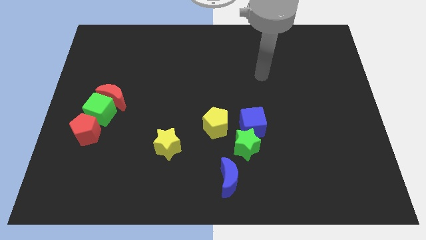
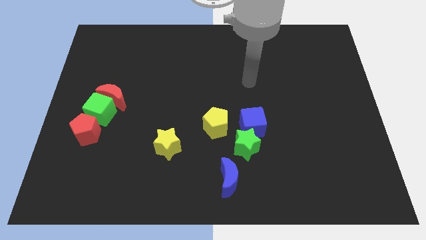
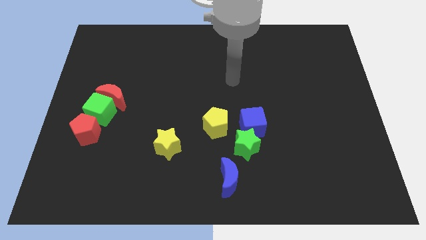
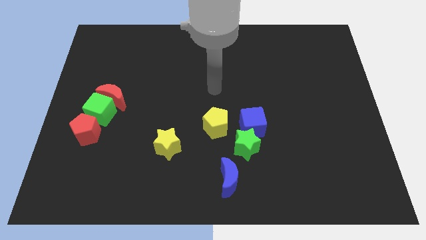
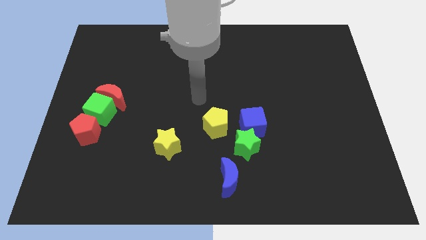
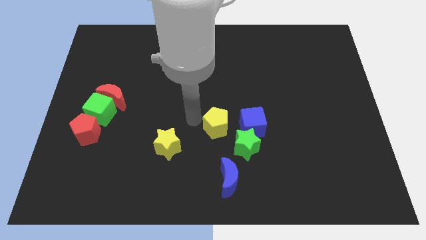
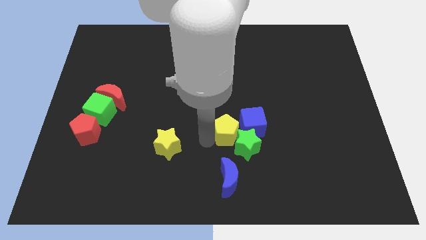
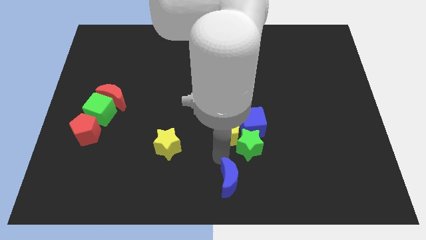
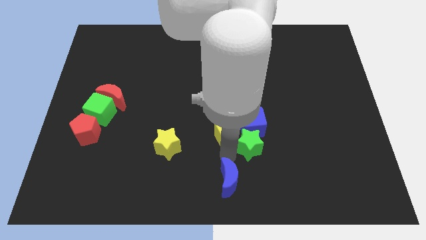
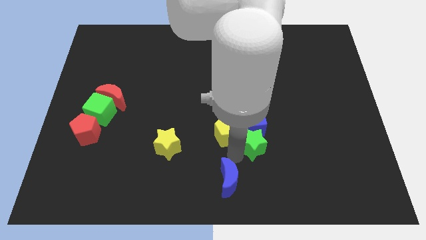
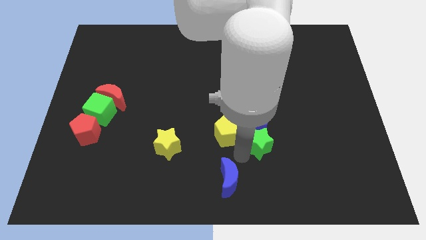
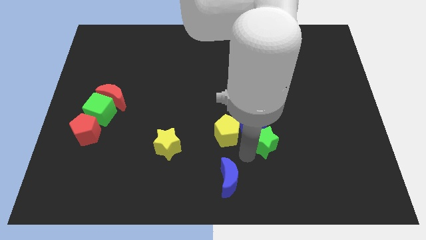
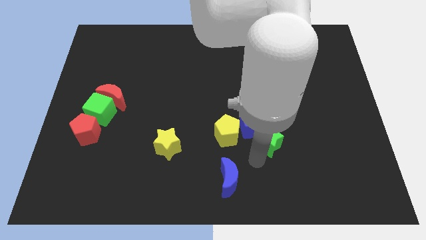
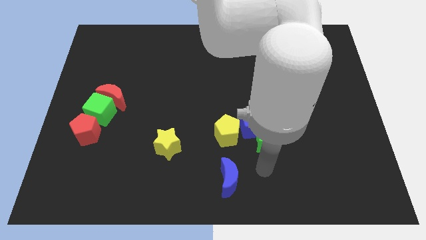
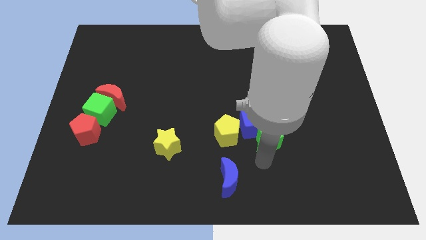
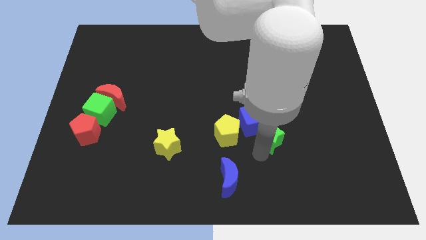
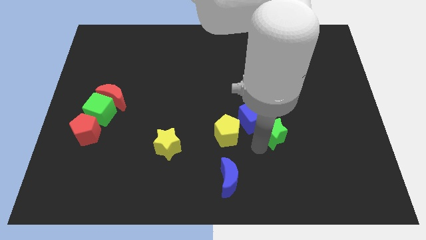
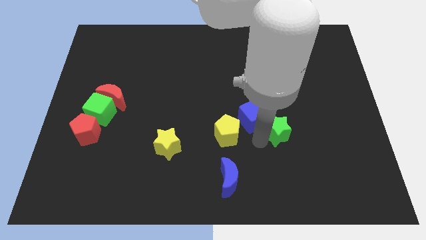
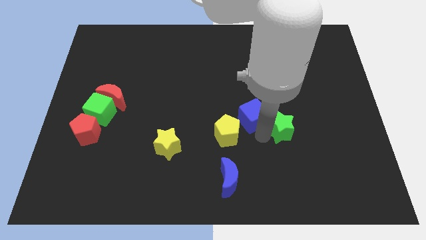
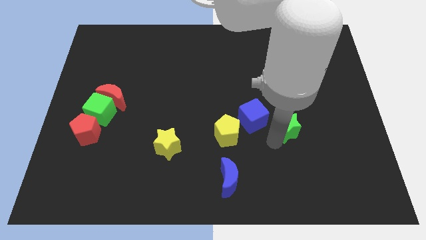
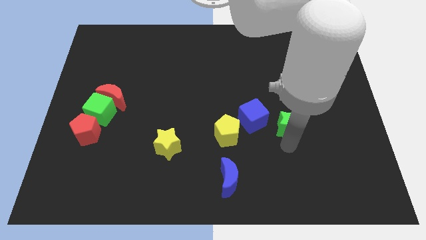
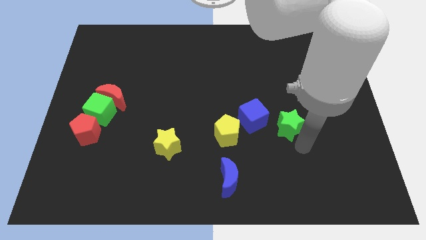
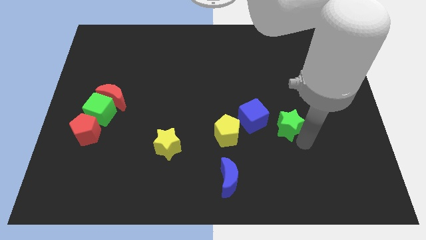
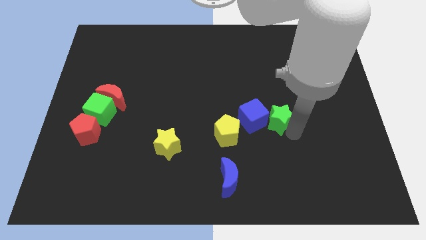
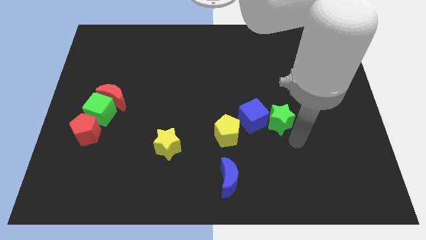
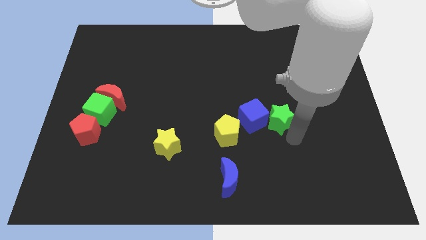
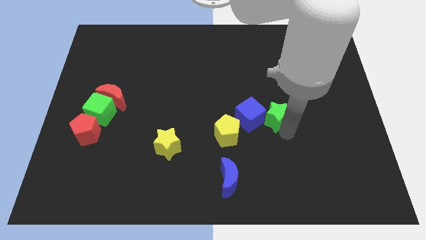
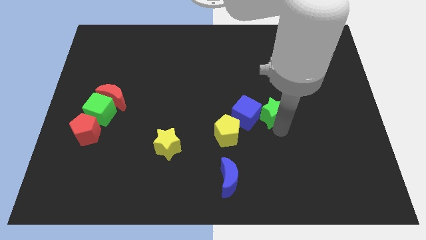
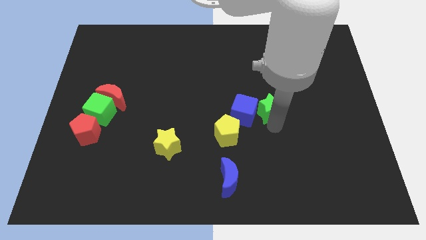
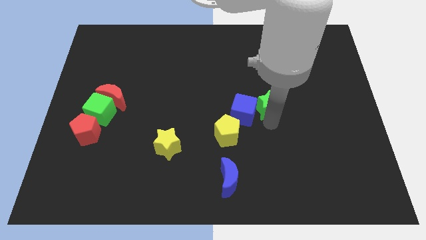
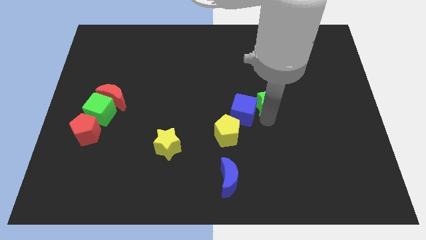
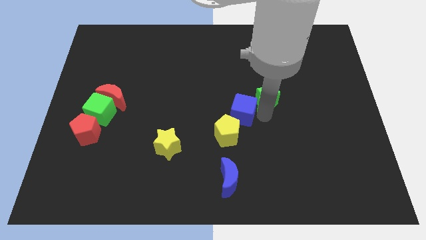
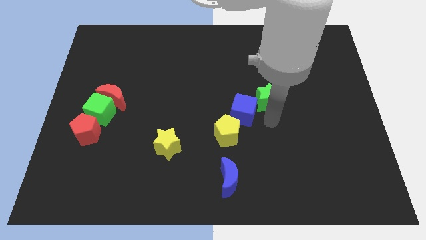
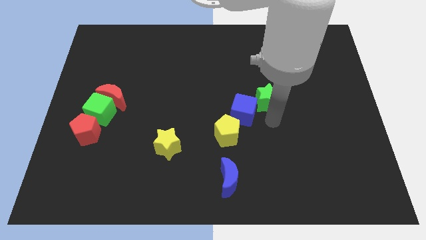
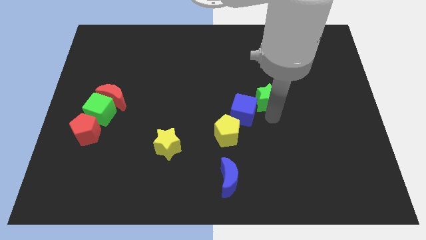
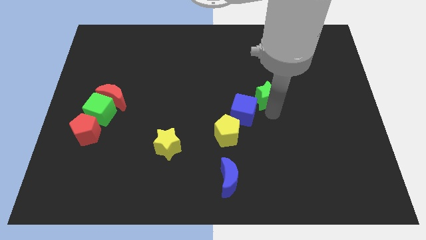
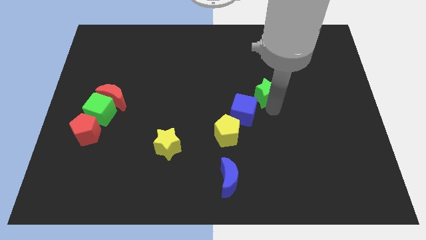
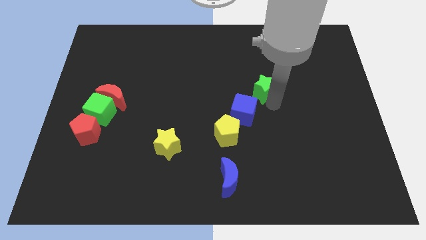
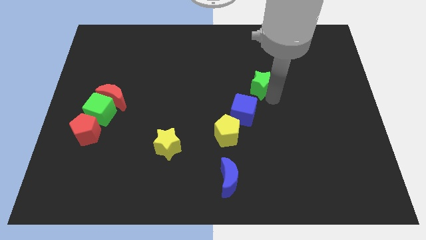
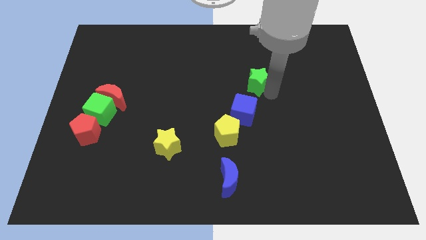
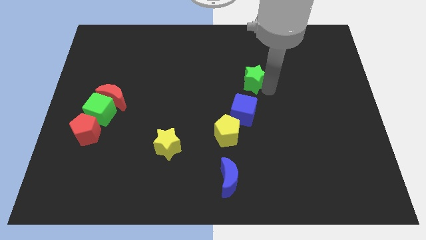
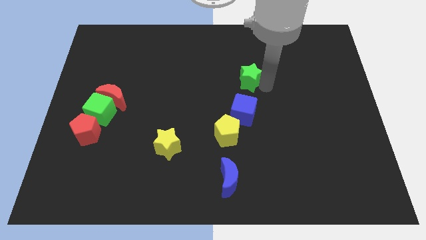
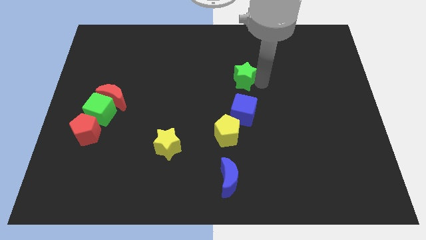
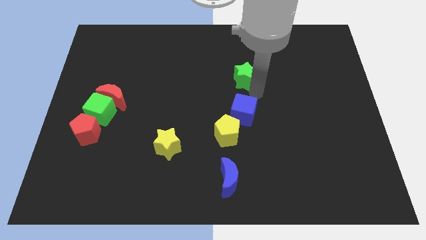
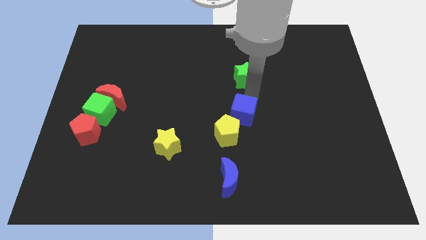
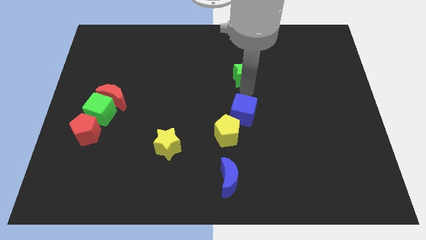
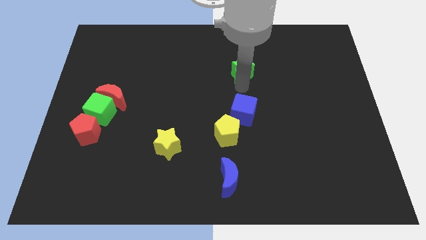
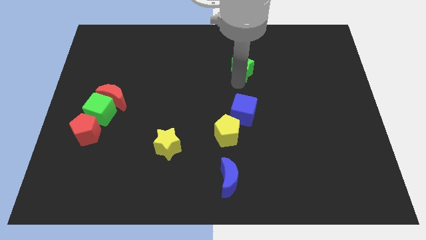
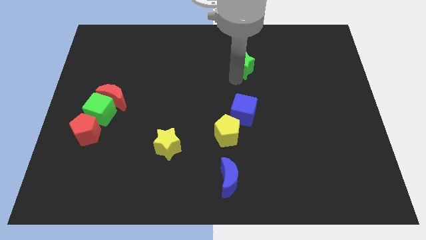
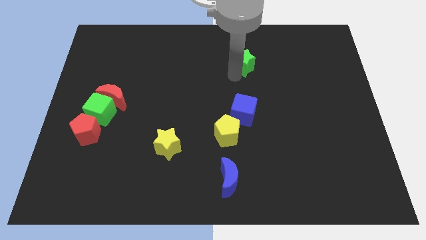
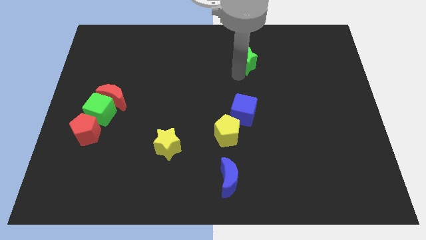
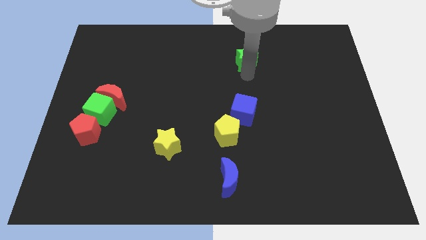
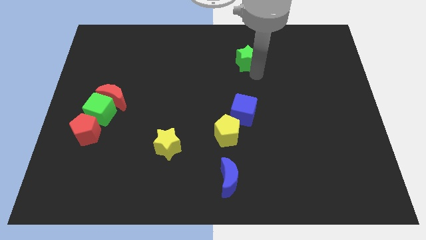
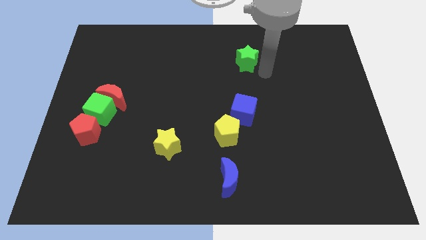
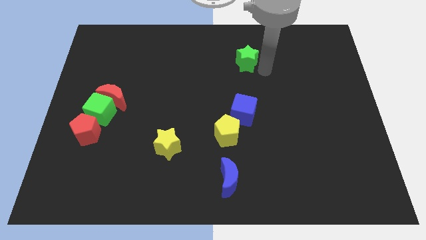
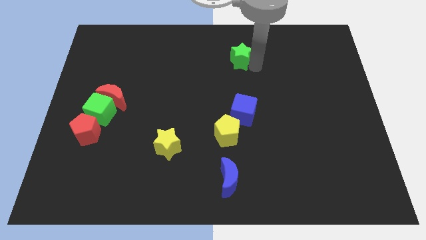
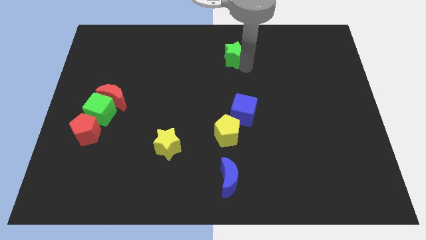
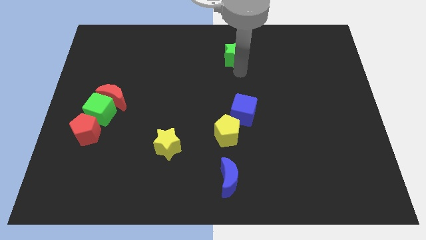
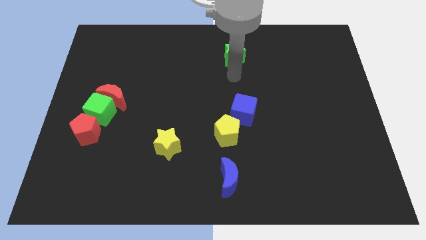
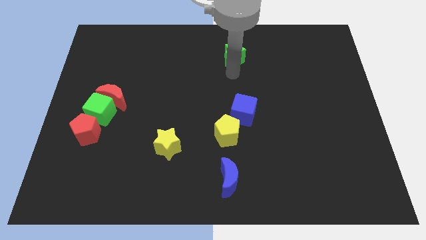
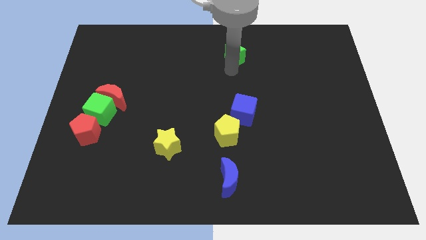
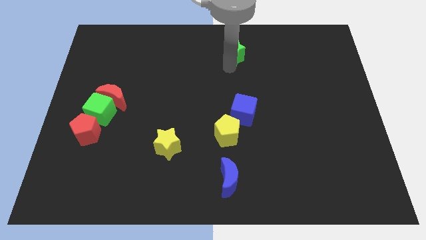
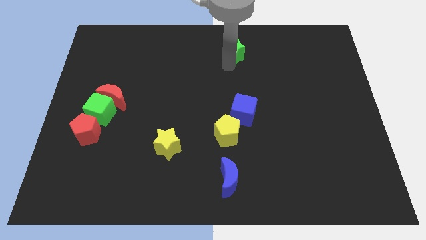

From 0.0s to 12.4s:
put the green star to the top
